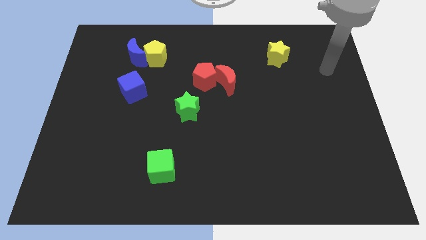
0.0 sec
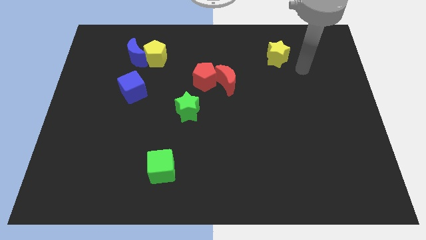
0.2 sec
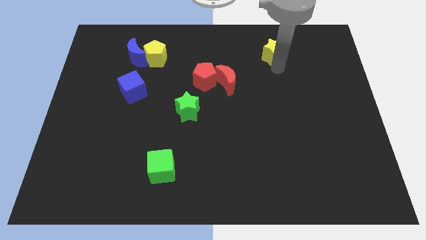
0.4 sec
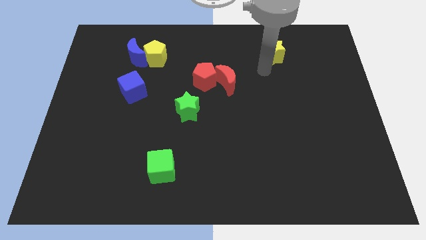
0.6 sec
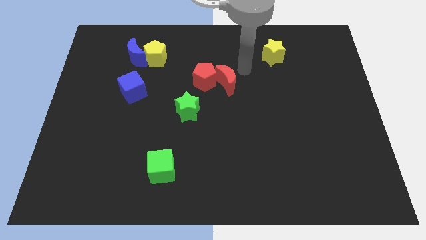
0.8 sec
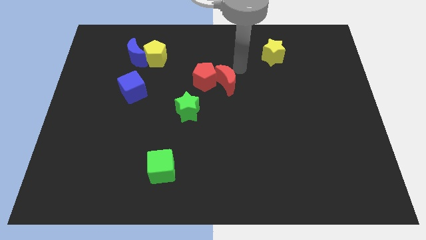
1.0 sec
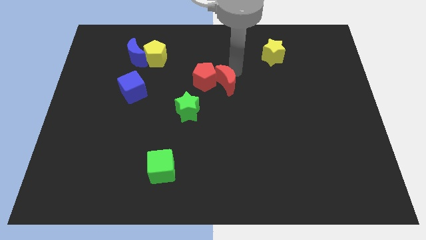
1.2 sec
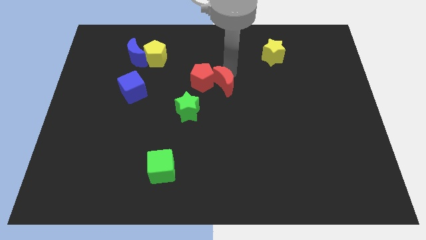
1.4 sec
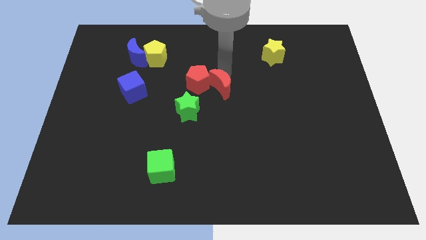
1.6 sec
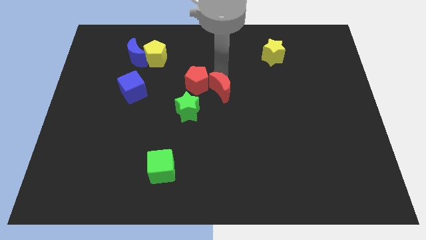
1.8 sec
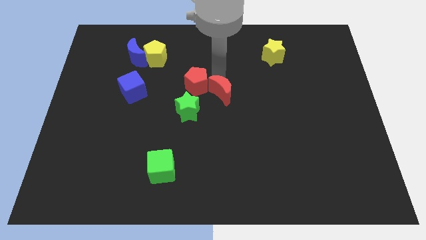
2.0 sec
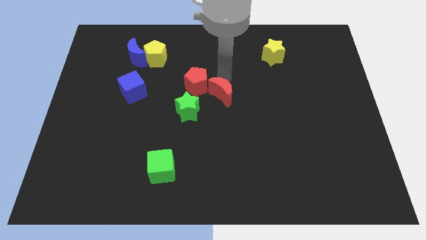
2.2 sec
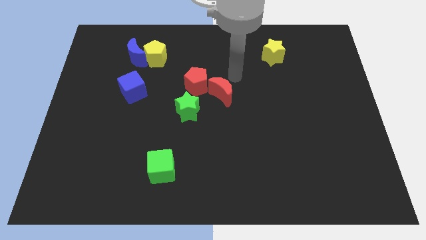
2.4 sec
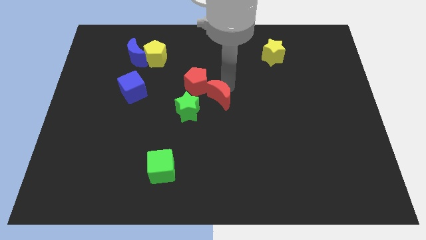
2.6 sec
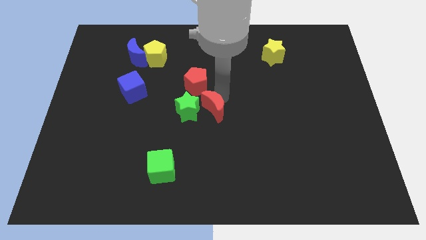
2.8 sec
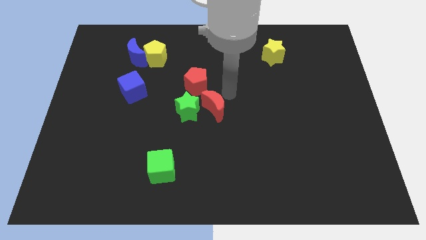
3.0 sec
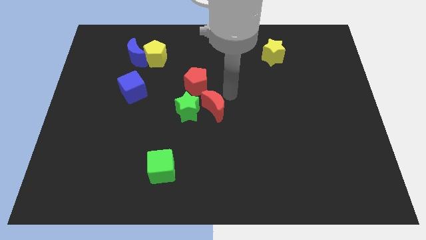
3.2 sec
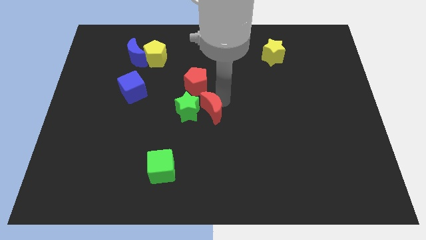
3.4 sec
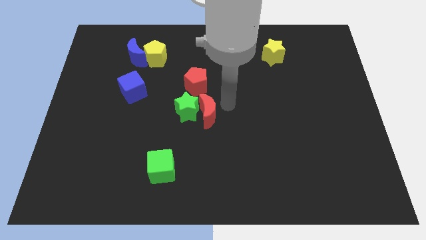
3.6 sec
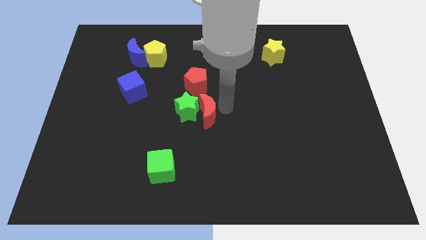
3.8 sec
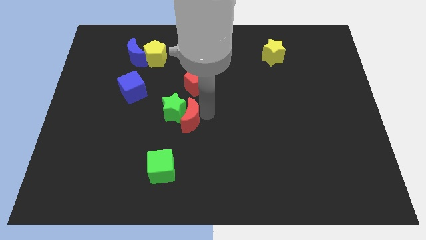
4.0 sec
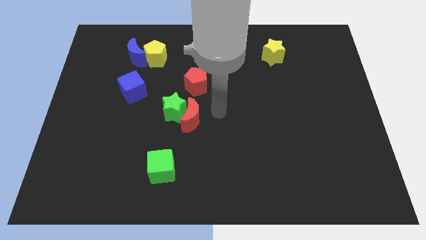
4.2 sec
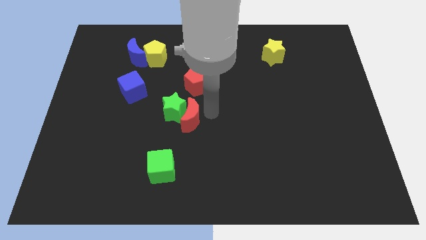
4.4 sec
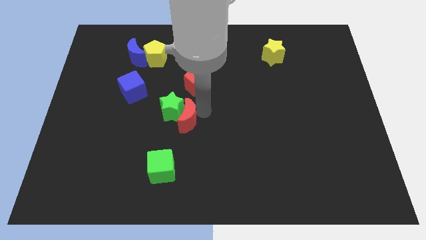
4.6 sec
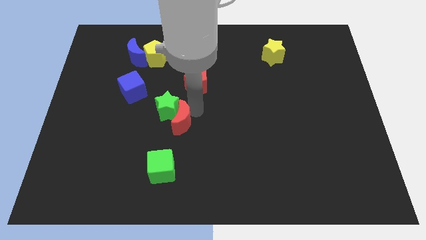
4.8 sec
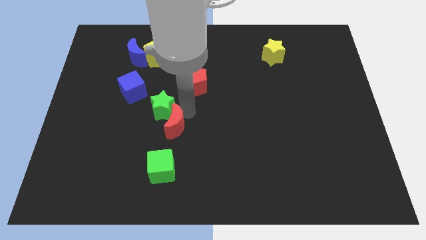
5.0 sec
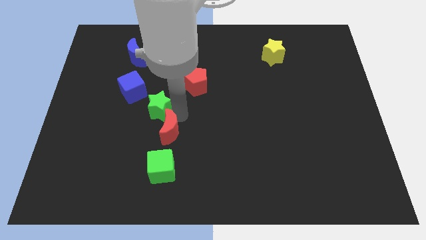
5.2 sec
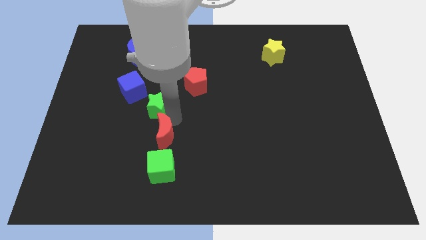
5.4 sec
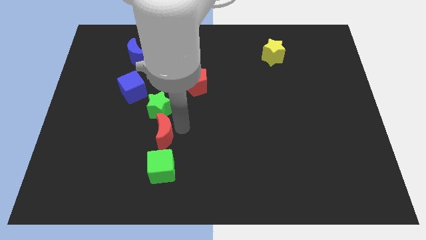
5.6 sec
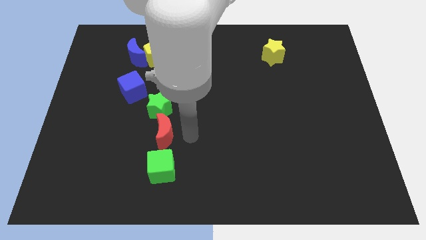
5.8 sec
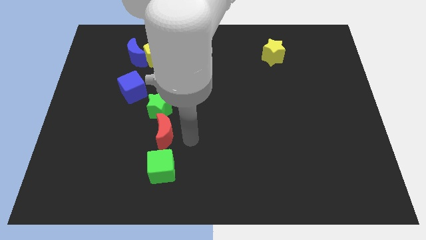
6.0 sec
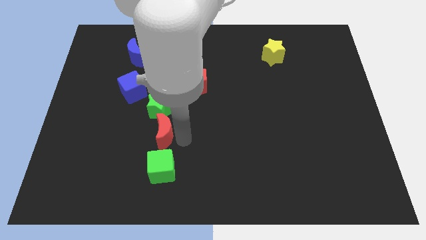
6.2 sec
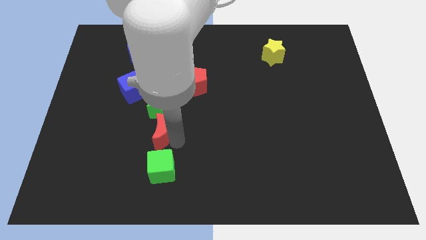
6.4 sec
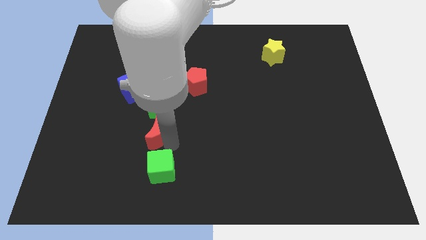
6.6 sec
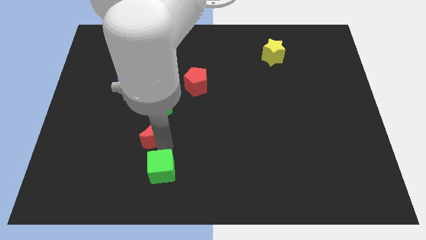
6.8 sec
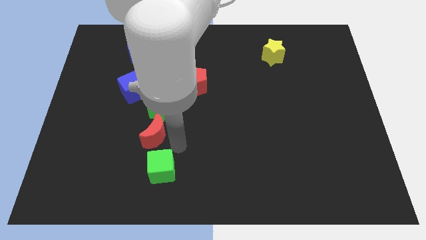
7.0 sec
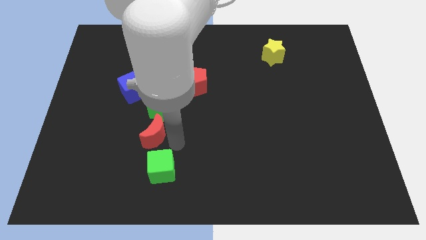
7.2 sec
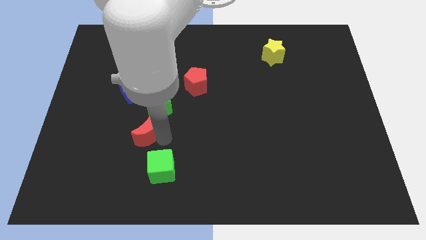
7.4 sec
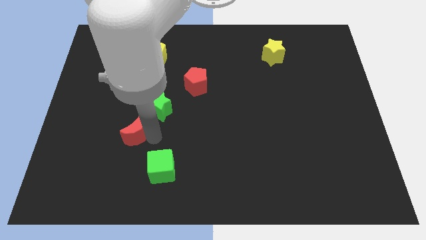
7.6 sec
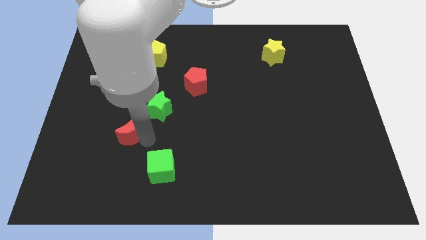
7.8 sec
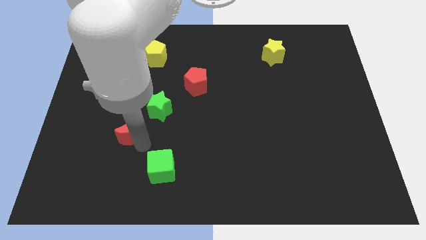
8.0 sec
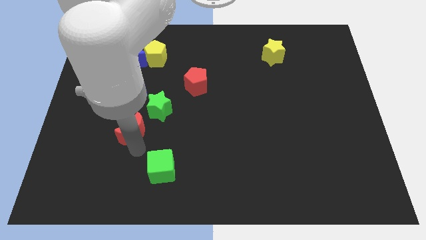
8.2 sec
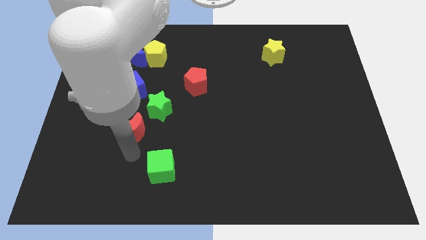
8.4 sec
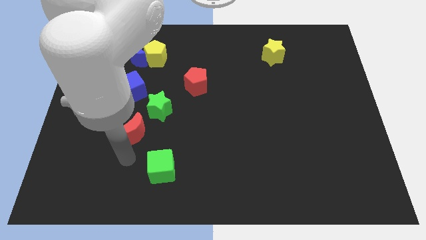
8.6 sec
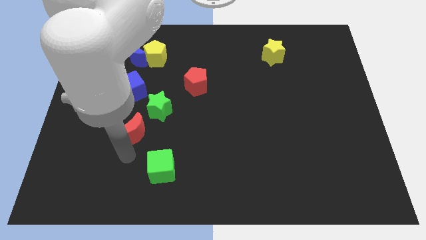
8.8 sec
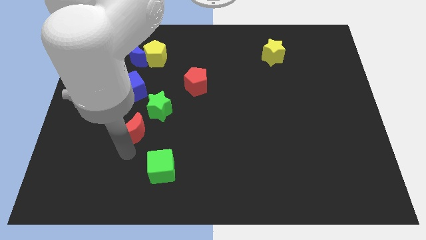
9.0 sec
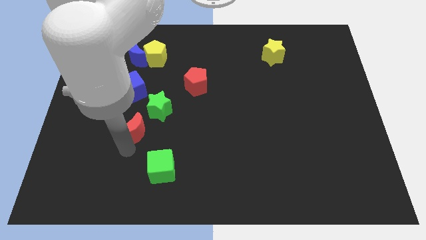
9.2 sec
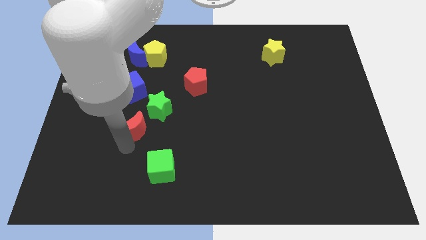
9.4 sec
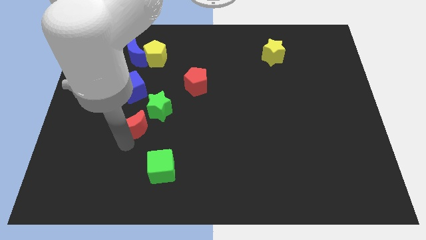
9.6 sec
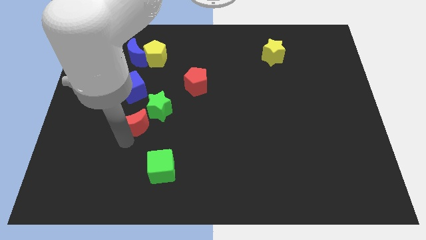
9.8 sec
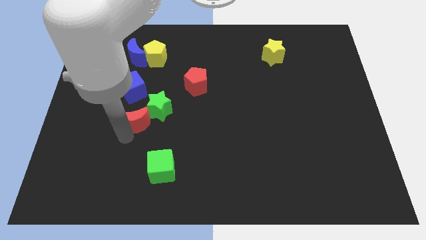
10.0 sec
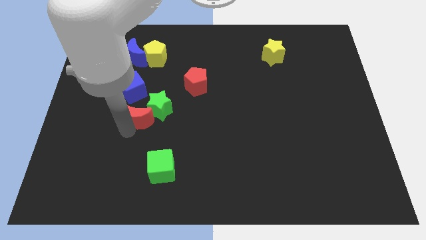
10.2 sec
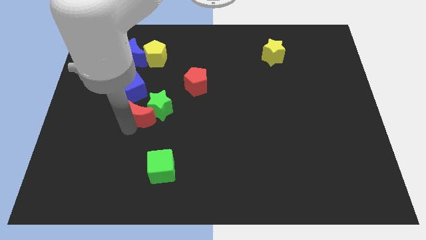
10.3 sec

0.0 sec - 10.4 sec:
put the red moon diagonally down and to the left of the green star

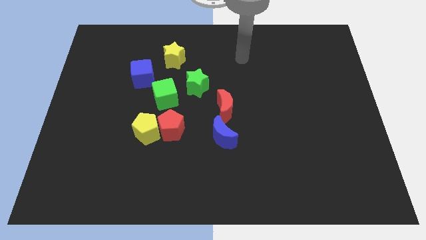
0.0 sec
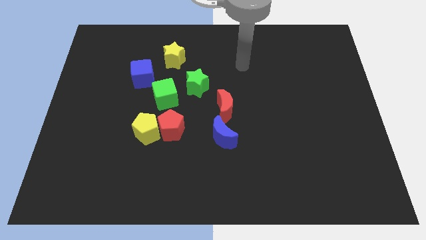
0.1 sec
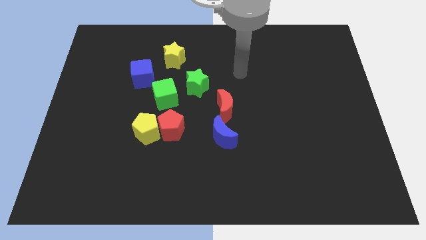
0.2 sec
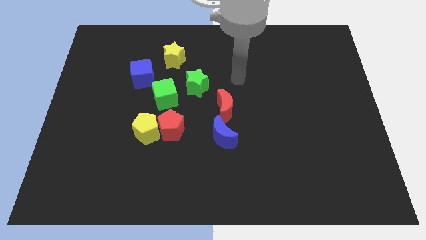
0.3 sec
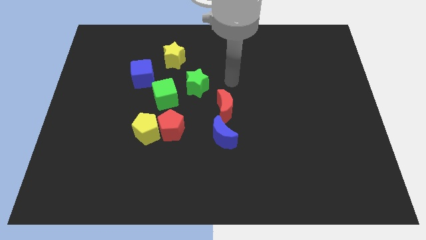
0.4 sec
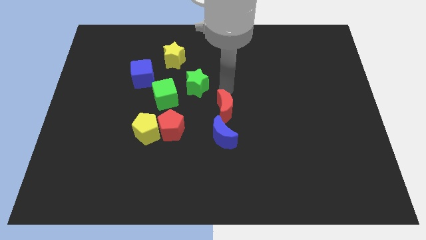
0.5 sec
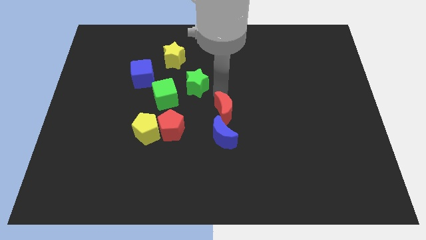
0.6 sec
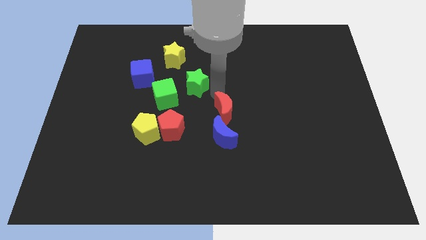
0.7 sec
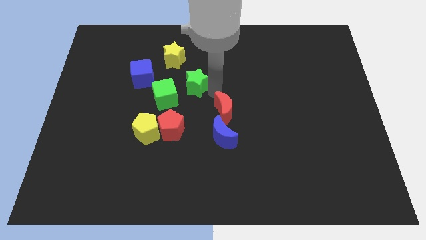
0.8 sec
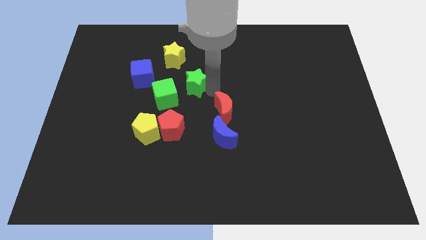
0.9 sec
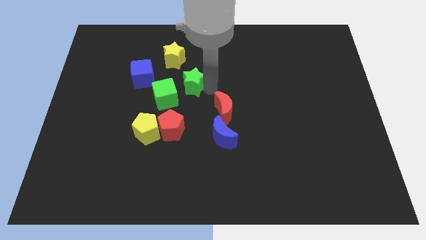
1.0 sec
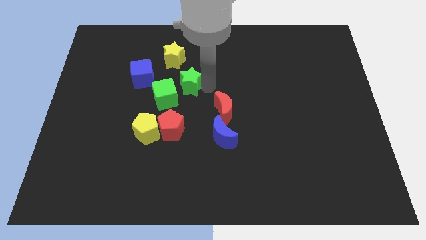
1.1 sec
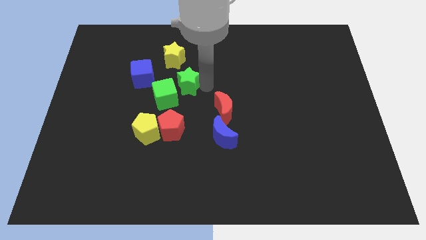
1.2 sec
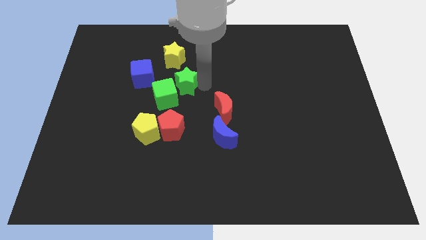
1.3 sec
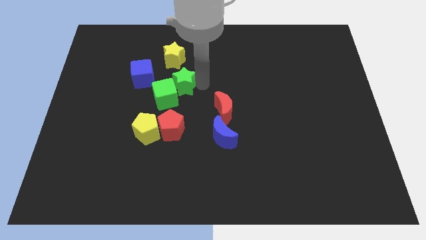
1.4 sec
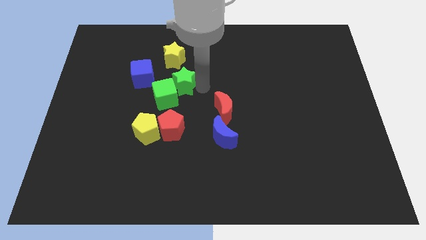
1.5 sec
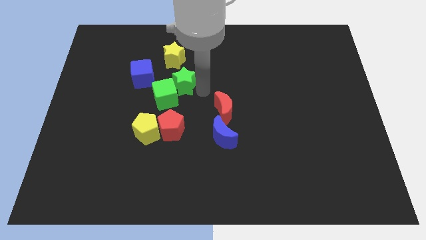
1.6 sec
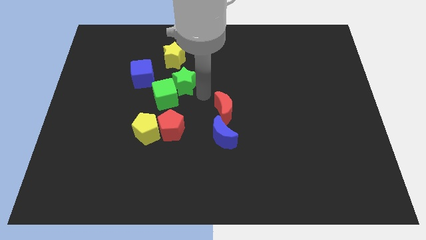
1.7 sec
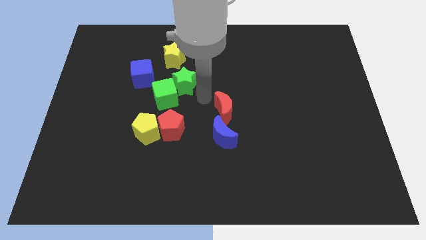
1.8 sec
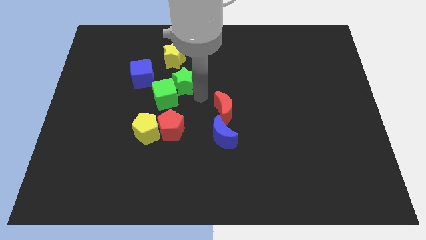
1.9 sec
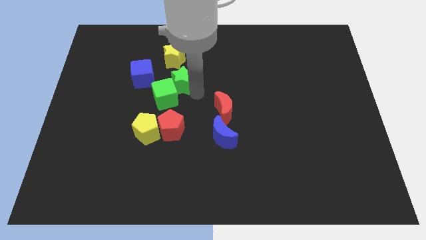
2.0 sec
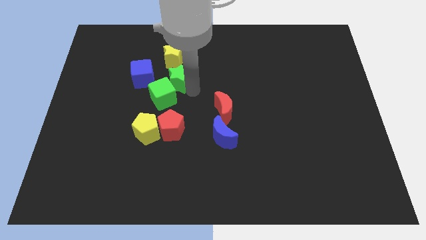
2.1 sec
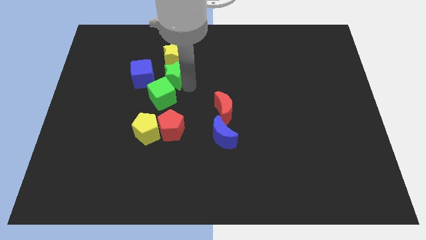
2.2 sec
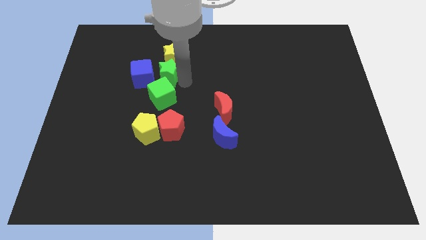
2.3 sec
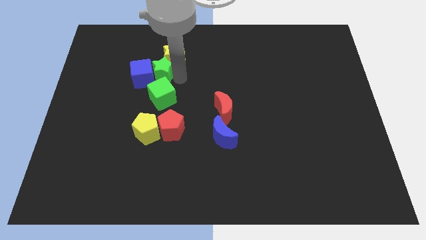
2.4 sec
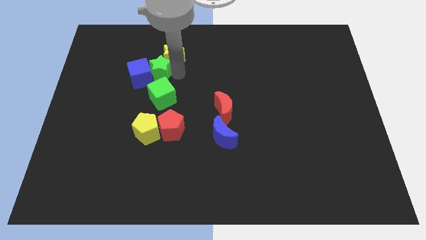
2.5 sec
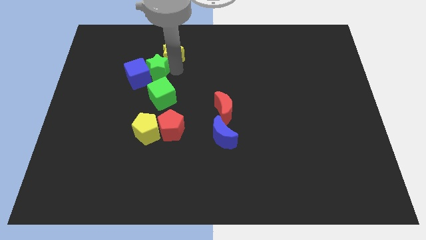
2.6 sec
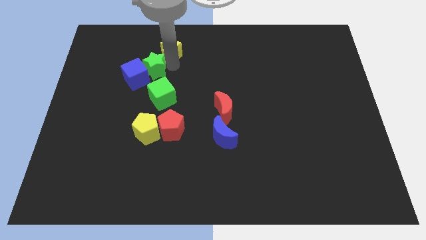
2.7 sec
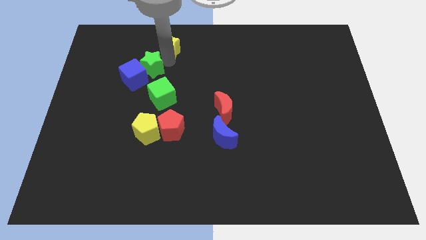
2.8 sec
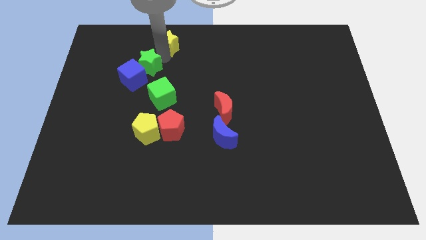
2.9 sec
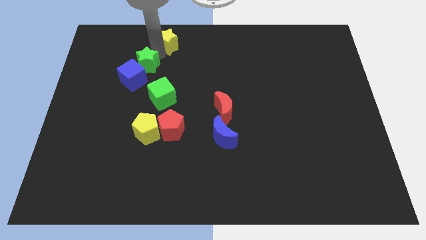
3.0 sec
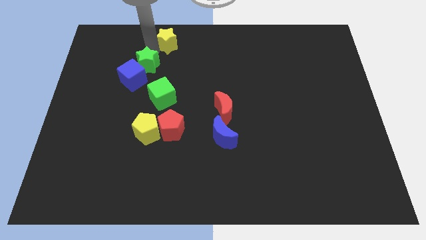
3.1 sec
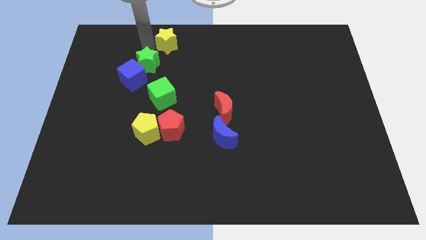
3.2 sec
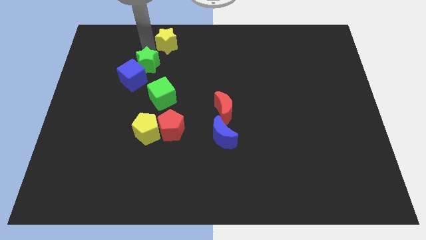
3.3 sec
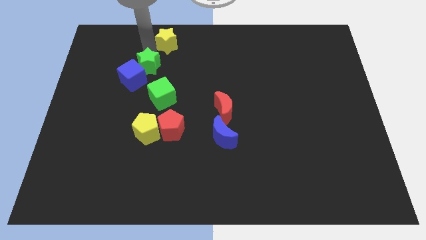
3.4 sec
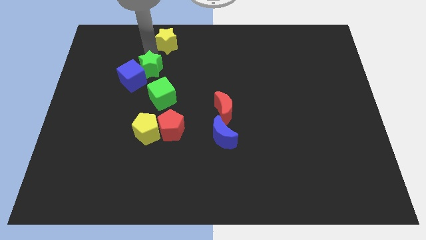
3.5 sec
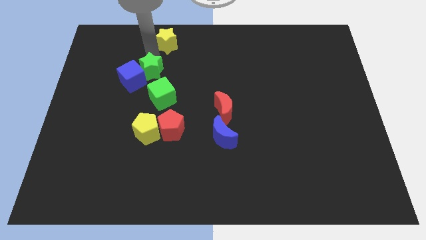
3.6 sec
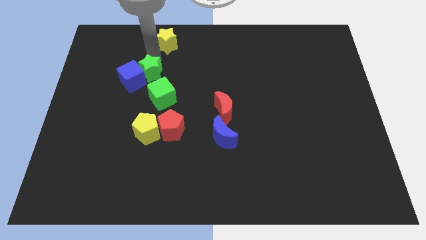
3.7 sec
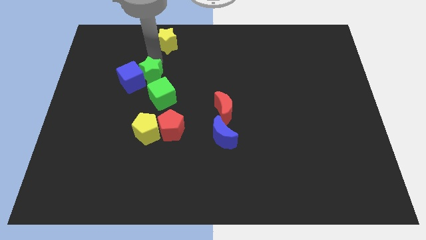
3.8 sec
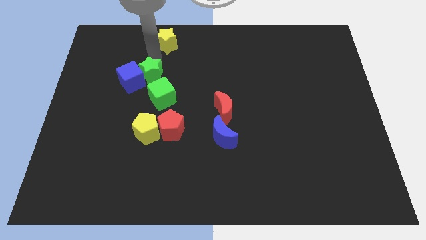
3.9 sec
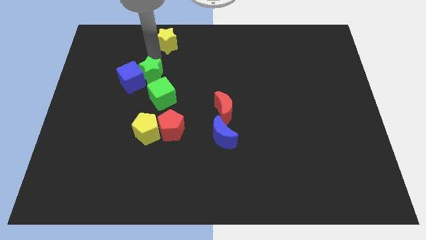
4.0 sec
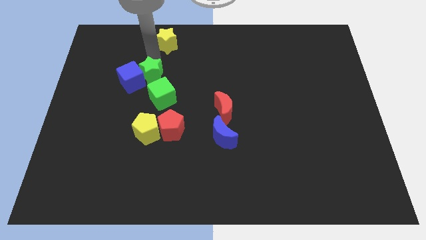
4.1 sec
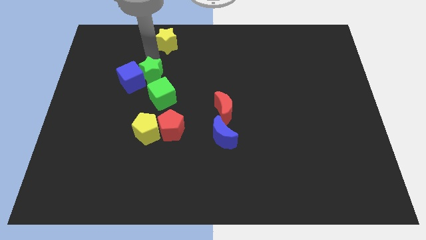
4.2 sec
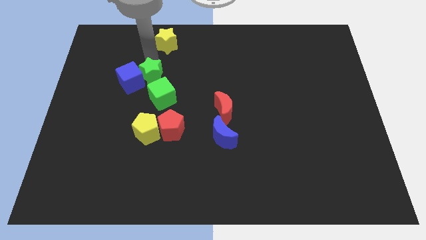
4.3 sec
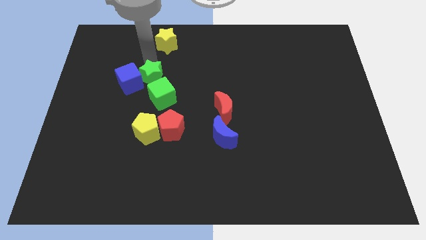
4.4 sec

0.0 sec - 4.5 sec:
push the green star to the top of the yellow pentagon
